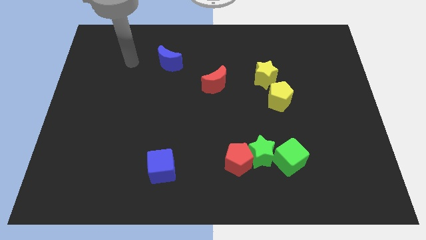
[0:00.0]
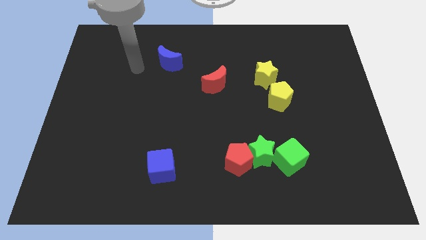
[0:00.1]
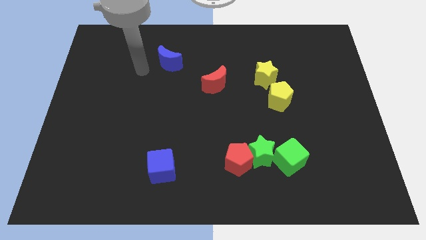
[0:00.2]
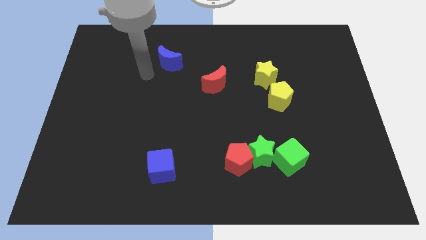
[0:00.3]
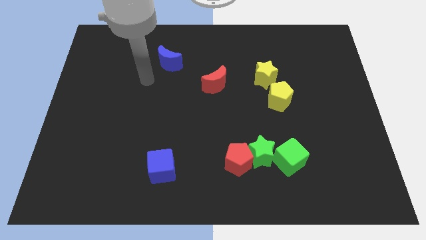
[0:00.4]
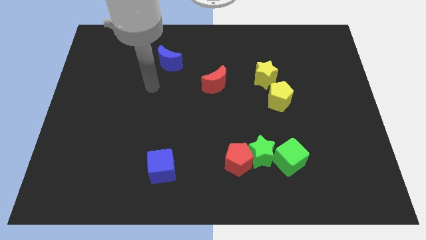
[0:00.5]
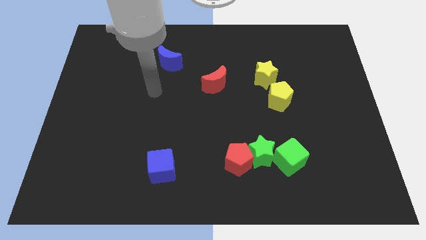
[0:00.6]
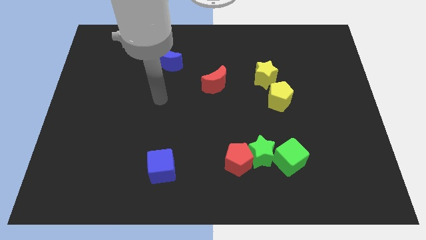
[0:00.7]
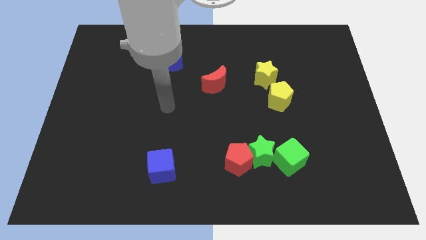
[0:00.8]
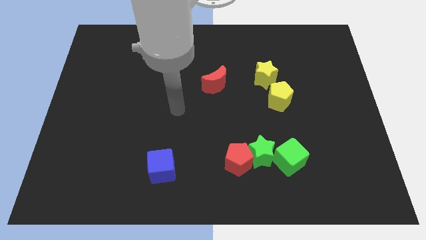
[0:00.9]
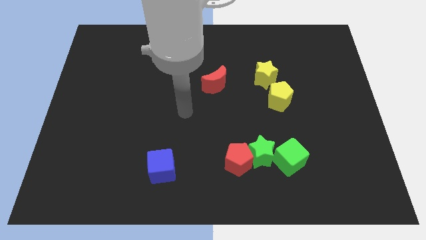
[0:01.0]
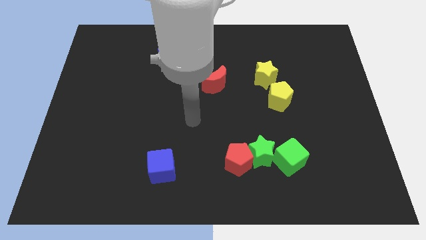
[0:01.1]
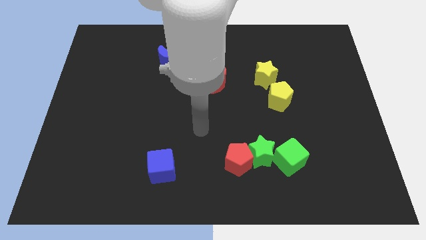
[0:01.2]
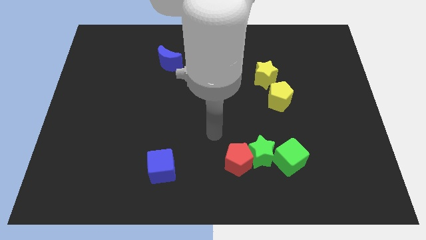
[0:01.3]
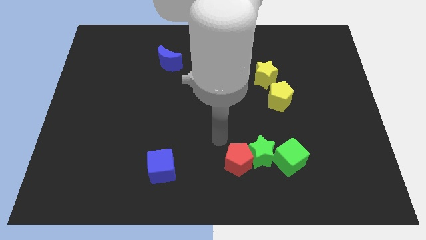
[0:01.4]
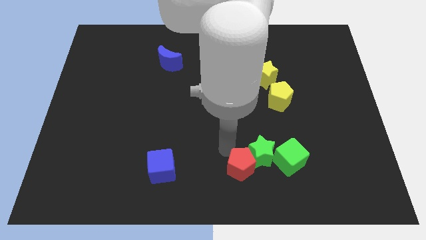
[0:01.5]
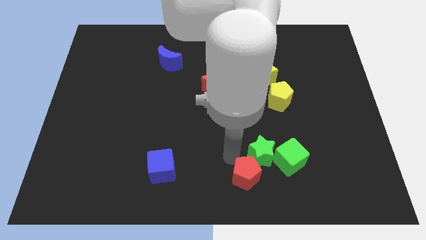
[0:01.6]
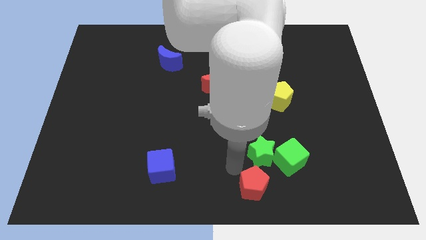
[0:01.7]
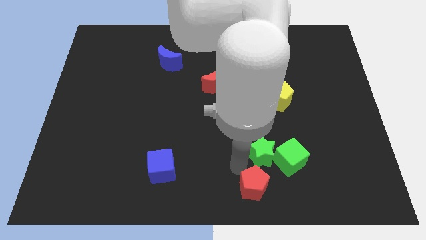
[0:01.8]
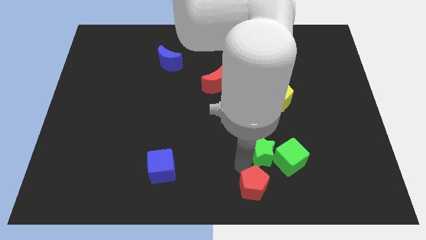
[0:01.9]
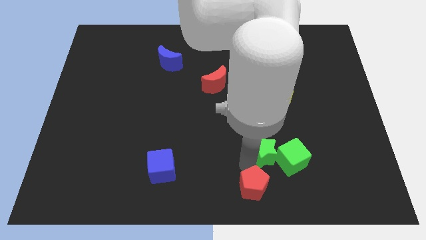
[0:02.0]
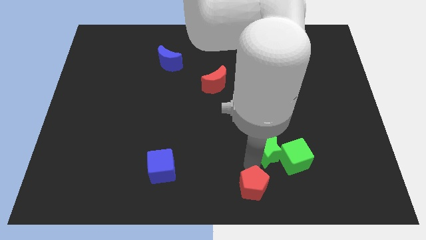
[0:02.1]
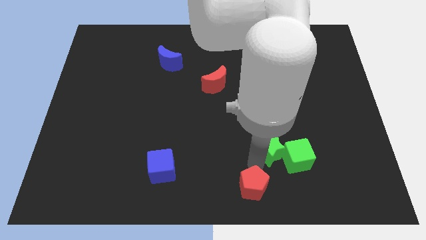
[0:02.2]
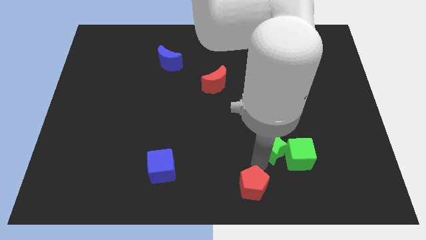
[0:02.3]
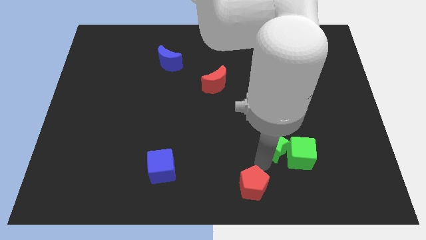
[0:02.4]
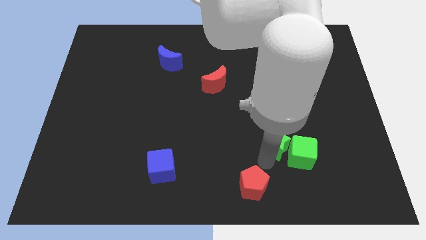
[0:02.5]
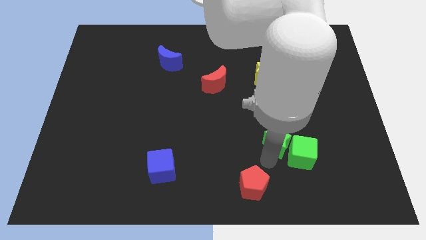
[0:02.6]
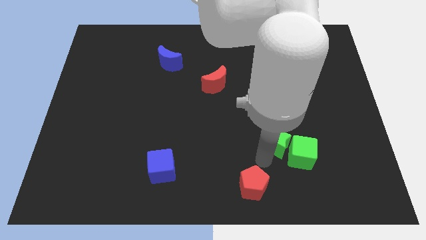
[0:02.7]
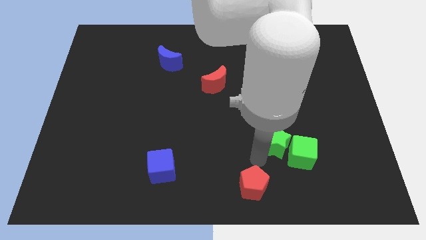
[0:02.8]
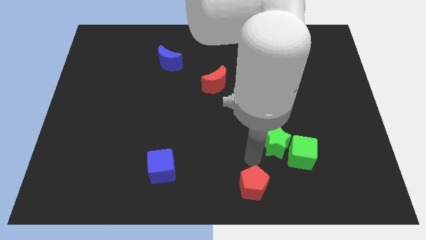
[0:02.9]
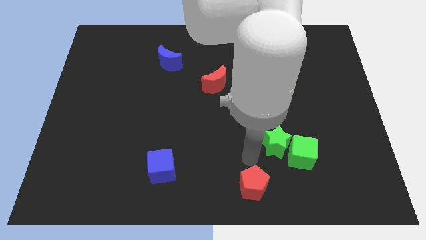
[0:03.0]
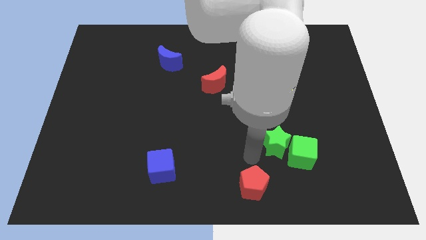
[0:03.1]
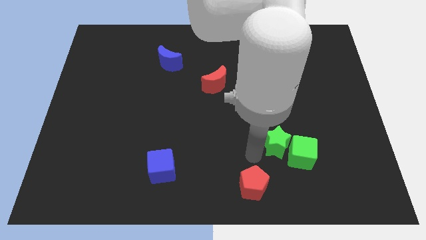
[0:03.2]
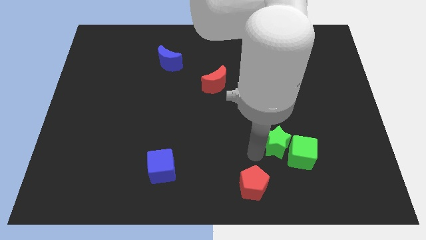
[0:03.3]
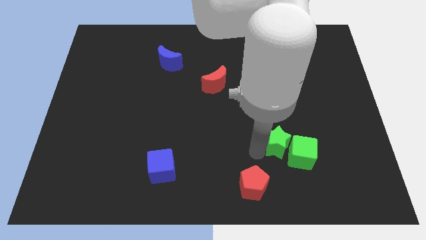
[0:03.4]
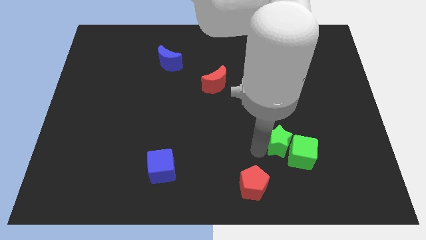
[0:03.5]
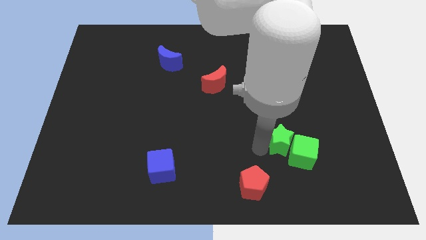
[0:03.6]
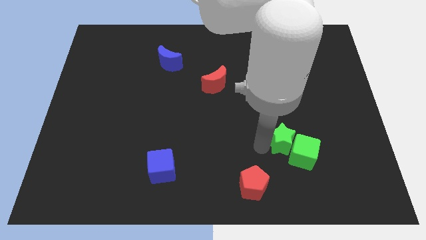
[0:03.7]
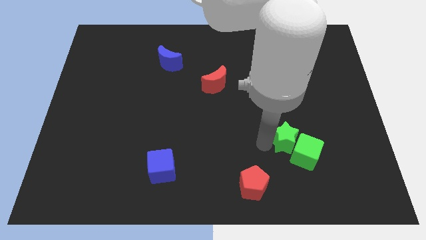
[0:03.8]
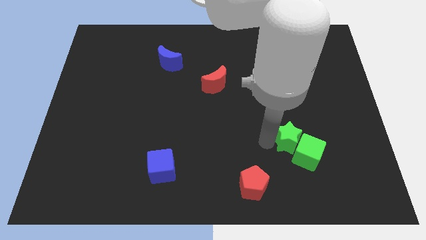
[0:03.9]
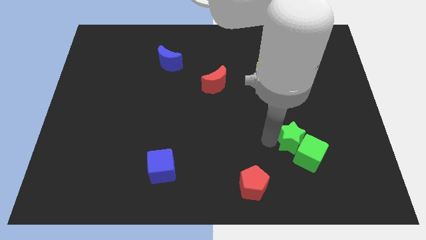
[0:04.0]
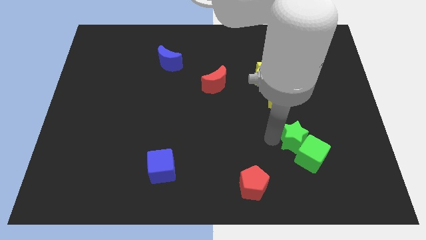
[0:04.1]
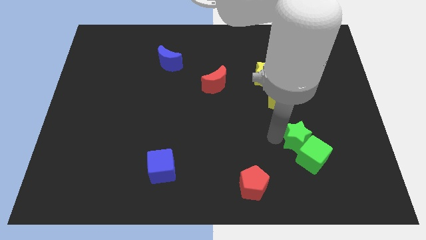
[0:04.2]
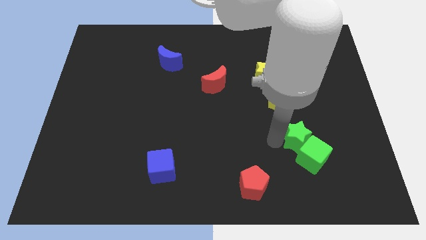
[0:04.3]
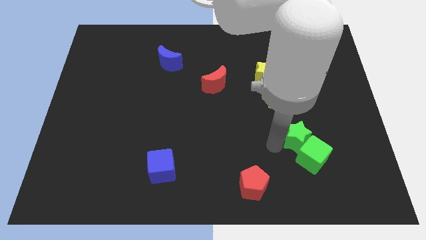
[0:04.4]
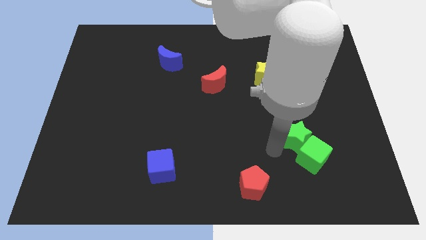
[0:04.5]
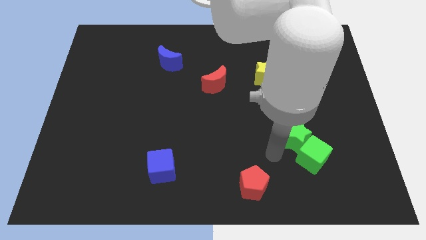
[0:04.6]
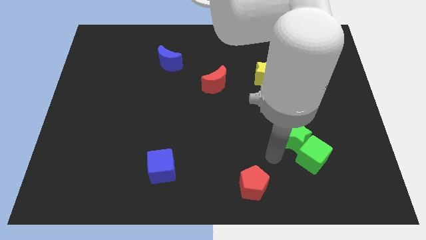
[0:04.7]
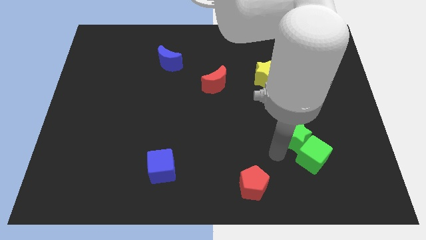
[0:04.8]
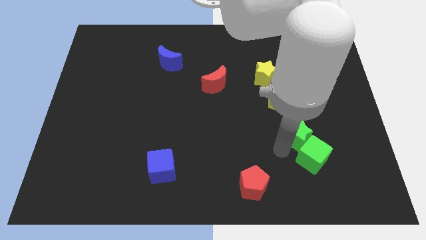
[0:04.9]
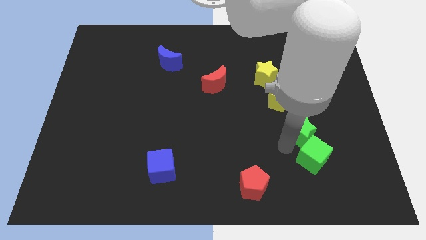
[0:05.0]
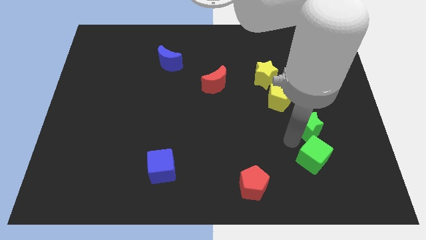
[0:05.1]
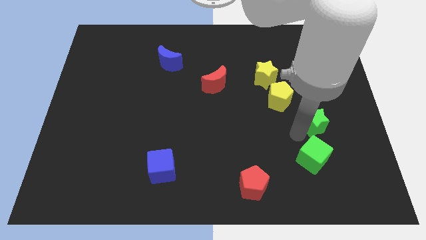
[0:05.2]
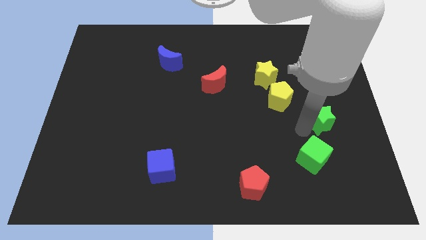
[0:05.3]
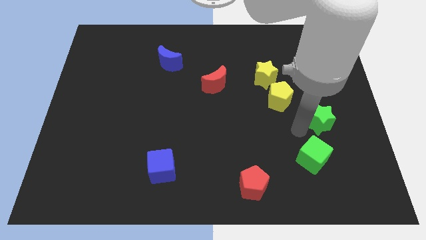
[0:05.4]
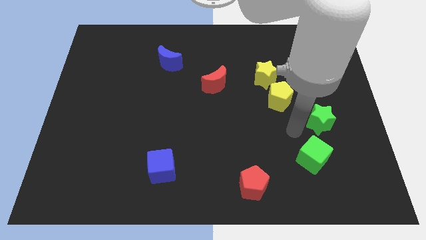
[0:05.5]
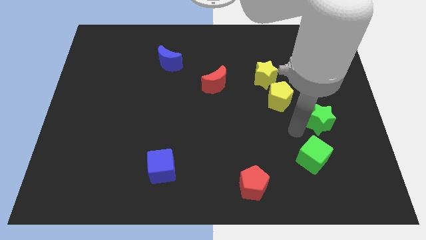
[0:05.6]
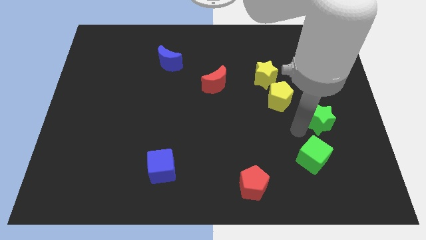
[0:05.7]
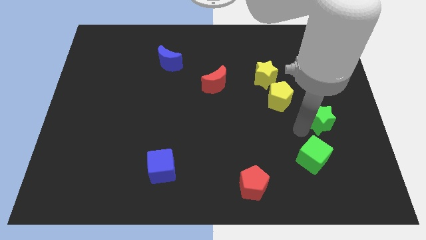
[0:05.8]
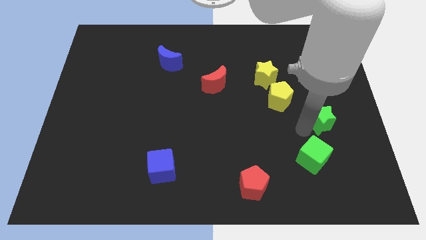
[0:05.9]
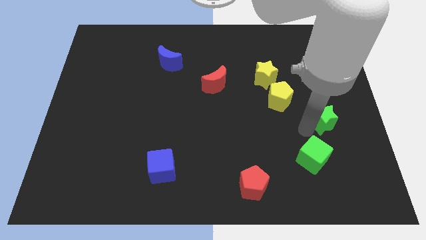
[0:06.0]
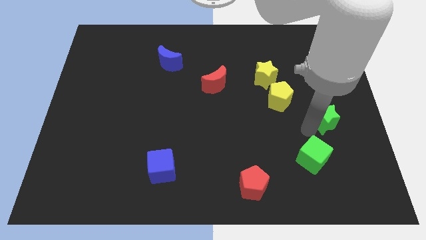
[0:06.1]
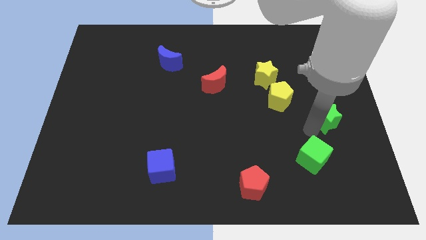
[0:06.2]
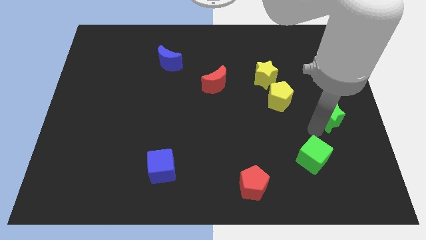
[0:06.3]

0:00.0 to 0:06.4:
move the green star to the right side
